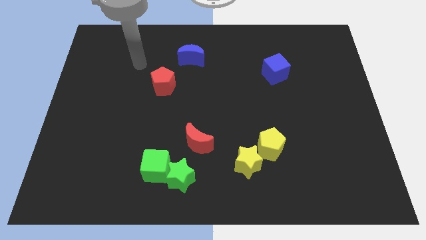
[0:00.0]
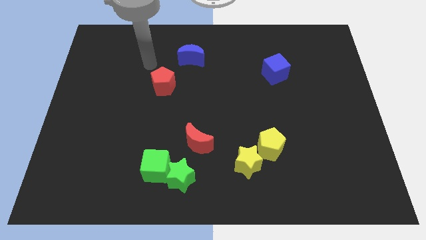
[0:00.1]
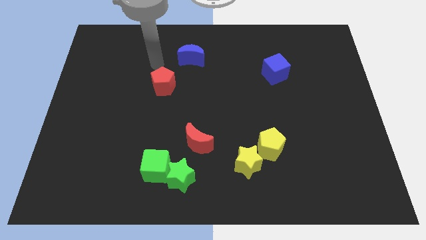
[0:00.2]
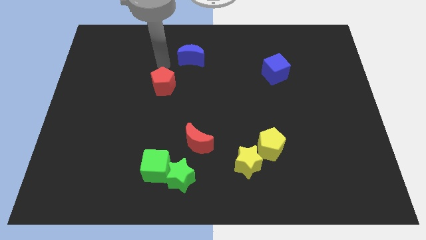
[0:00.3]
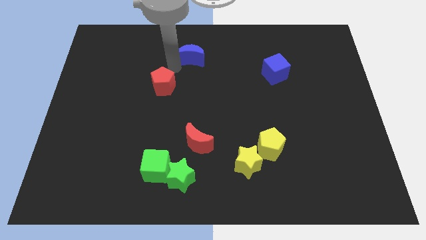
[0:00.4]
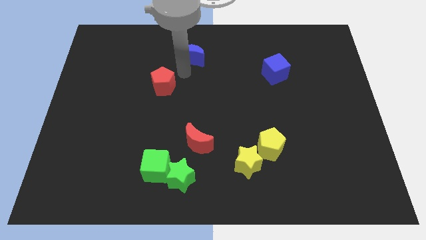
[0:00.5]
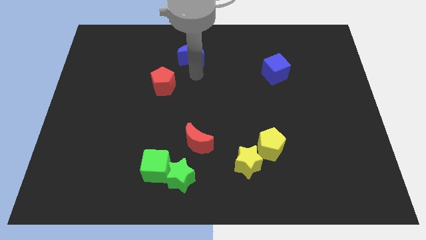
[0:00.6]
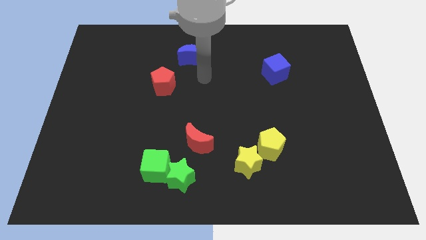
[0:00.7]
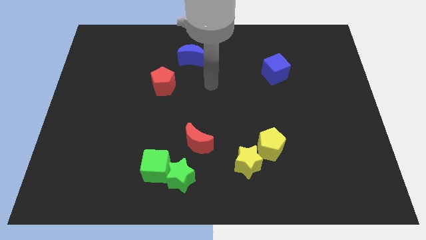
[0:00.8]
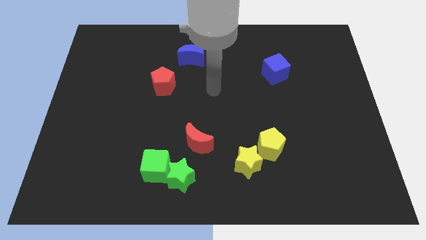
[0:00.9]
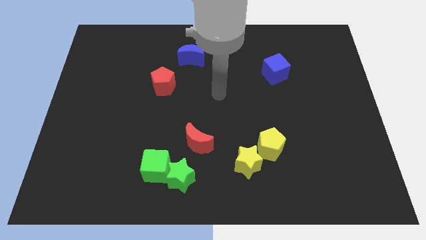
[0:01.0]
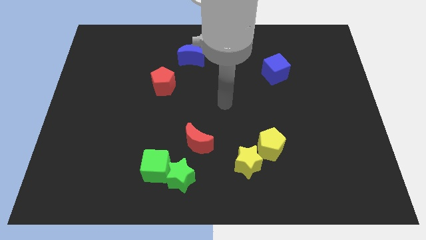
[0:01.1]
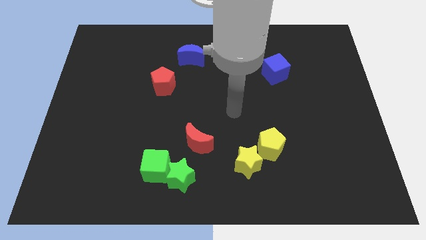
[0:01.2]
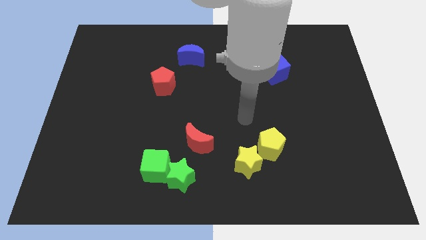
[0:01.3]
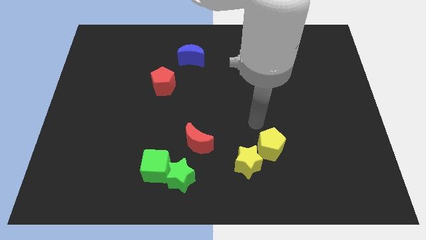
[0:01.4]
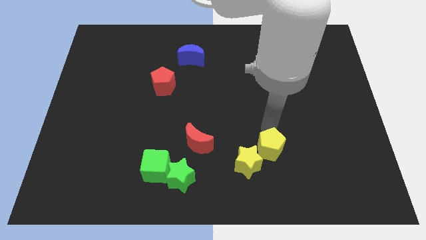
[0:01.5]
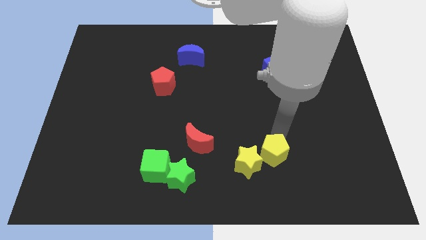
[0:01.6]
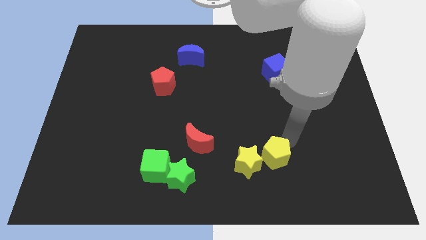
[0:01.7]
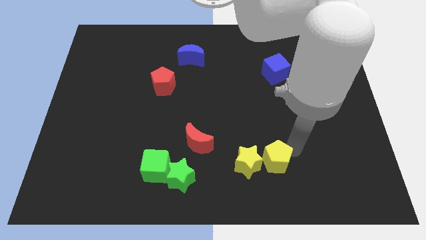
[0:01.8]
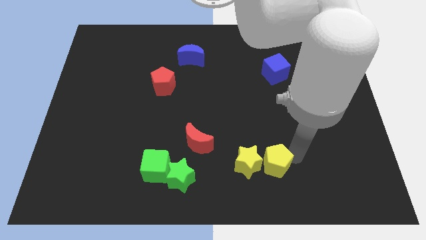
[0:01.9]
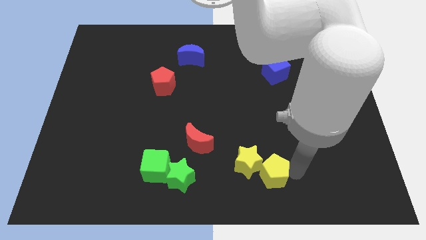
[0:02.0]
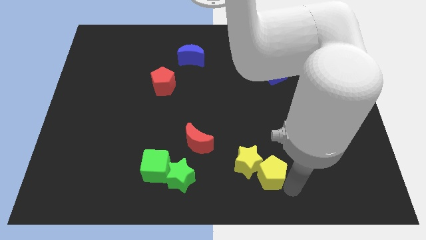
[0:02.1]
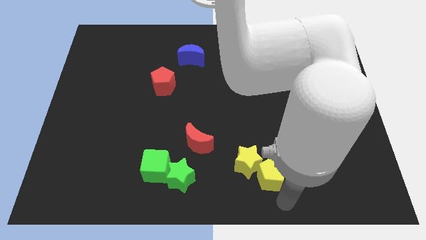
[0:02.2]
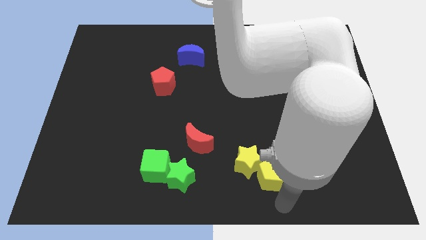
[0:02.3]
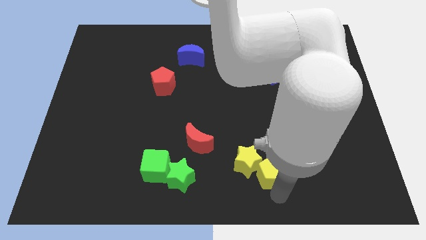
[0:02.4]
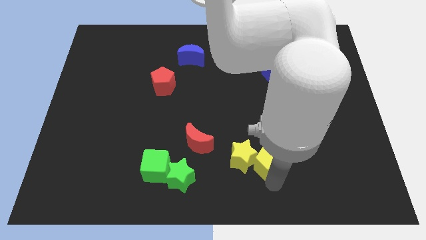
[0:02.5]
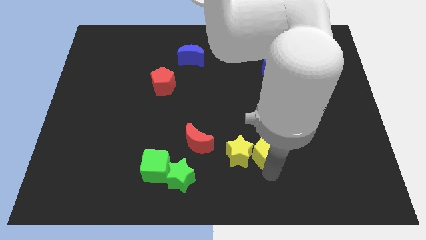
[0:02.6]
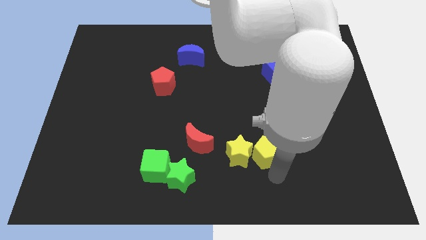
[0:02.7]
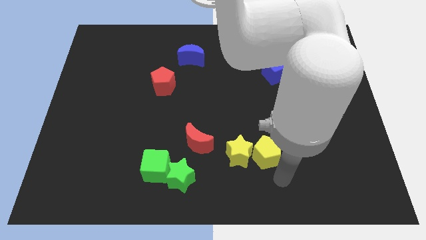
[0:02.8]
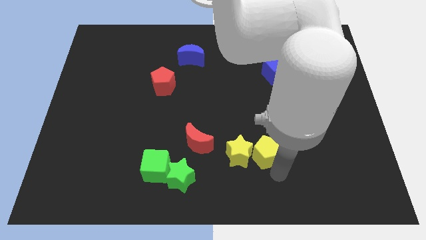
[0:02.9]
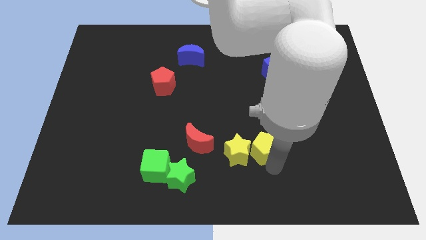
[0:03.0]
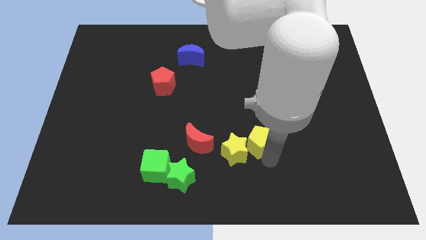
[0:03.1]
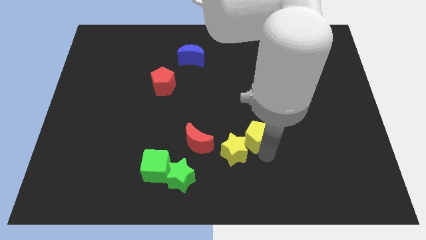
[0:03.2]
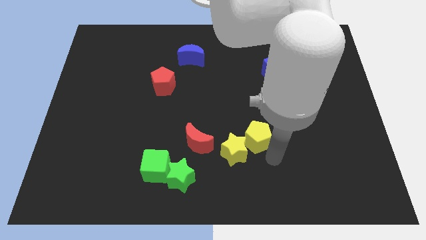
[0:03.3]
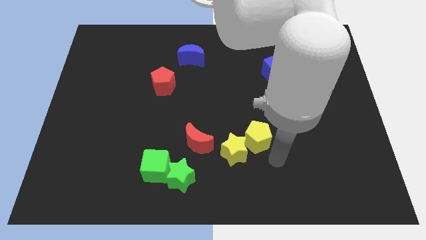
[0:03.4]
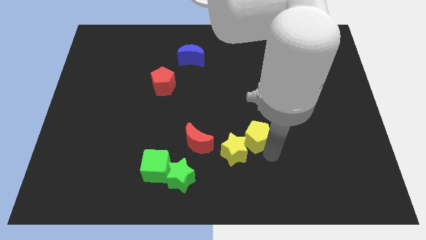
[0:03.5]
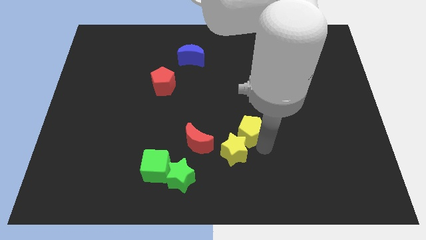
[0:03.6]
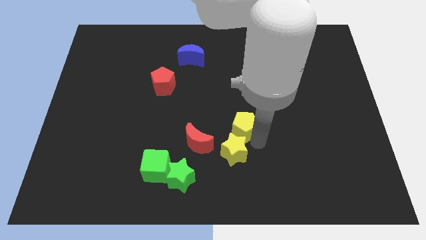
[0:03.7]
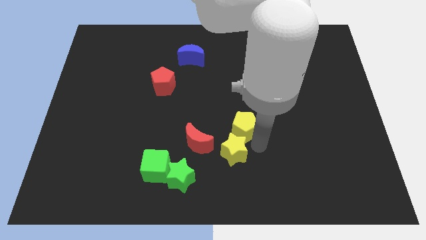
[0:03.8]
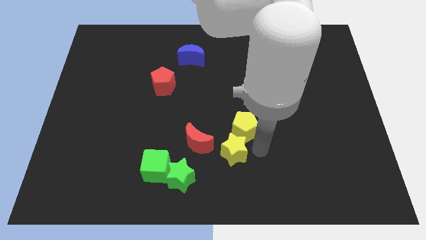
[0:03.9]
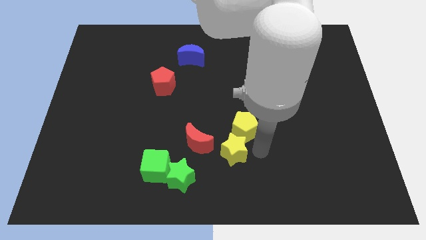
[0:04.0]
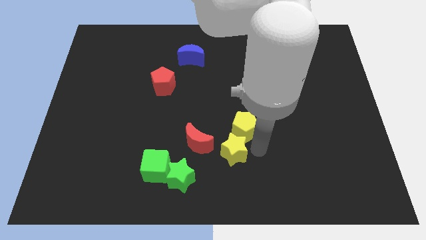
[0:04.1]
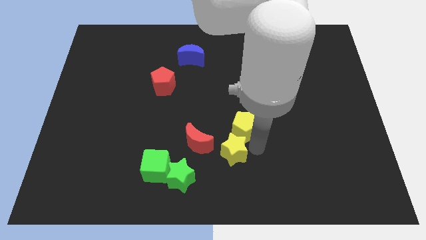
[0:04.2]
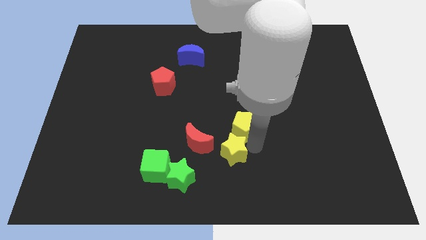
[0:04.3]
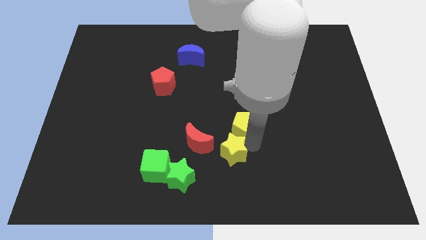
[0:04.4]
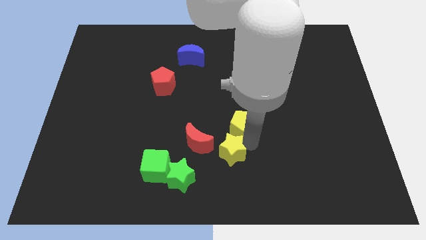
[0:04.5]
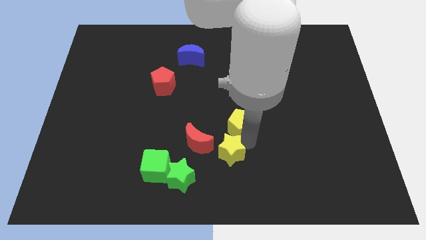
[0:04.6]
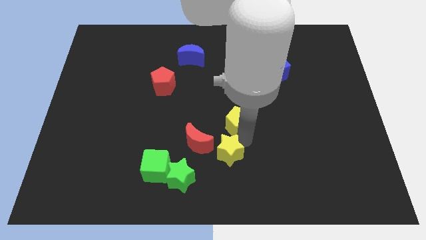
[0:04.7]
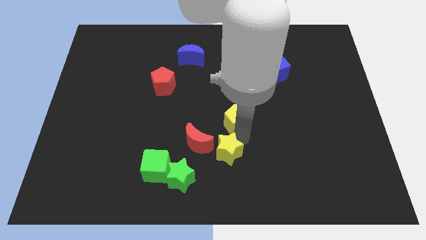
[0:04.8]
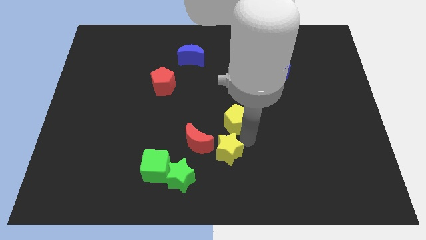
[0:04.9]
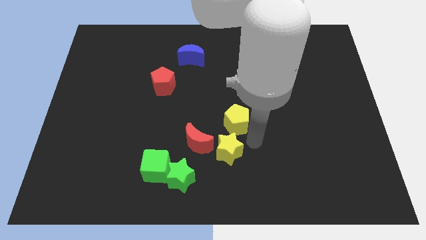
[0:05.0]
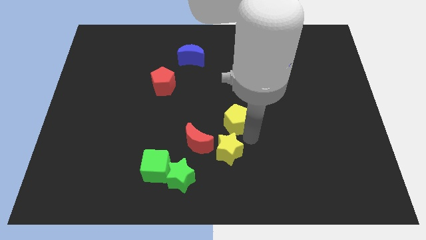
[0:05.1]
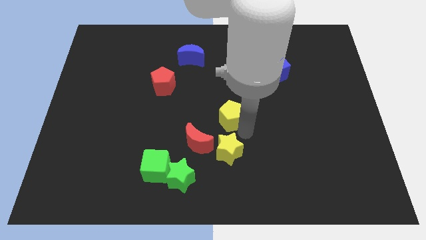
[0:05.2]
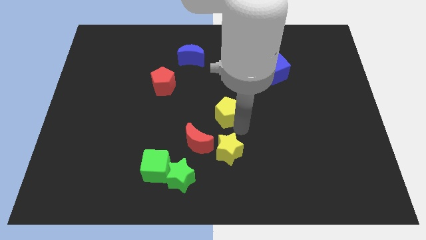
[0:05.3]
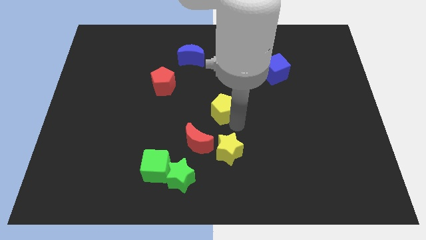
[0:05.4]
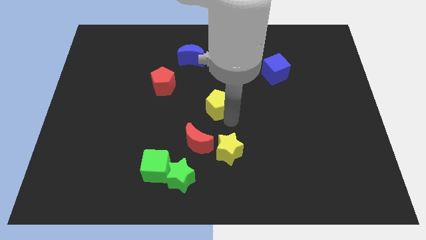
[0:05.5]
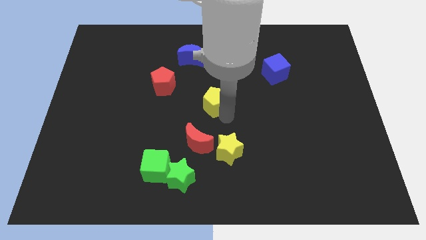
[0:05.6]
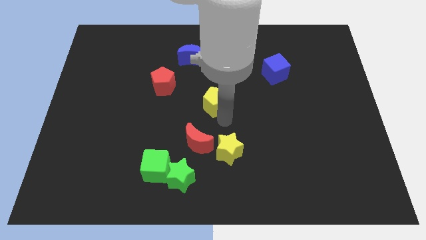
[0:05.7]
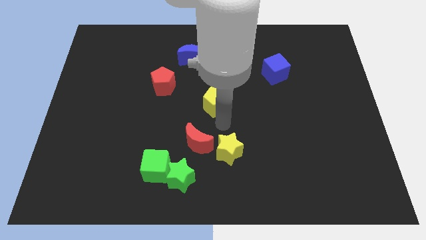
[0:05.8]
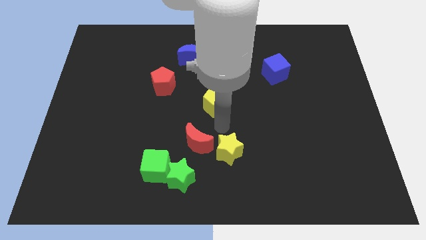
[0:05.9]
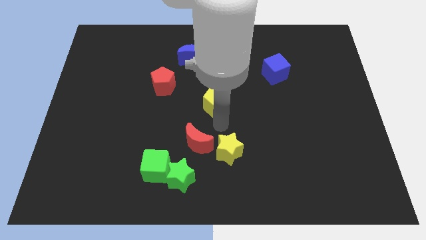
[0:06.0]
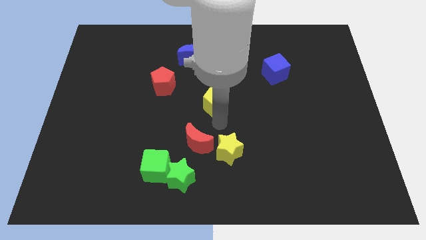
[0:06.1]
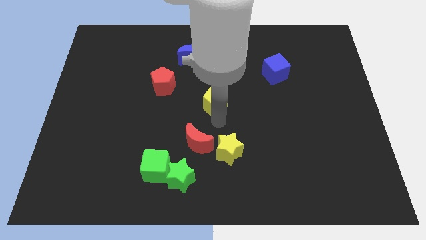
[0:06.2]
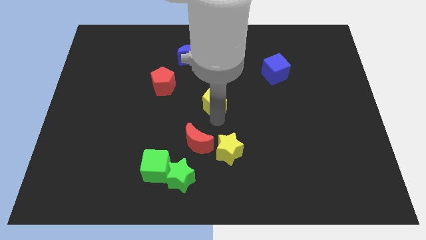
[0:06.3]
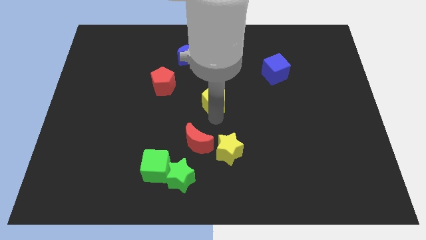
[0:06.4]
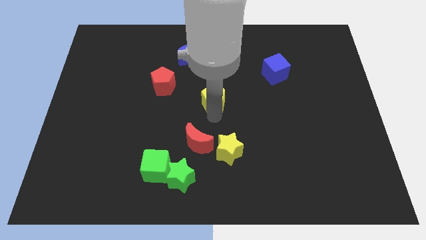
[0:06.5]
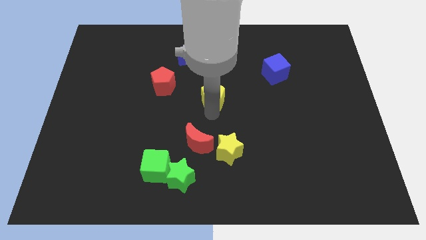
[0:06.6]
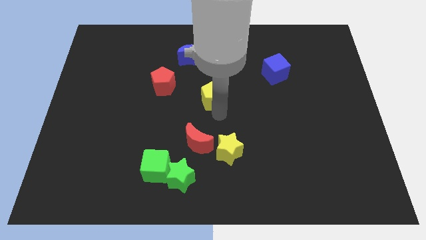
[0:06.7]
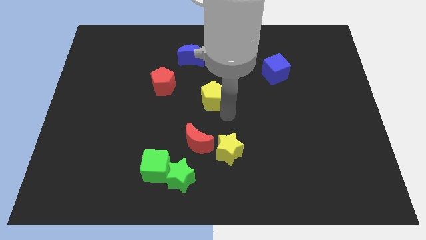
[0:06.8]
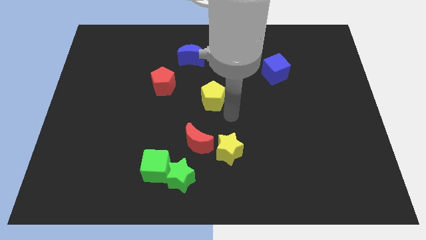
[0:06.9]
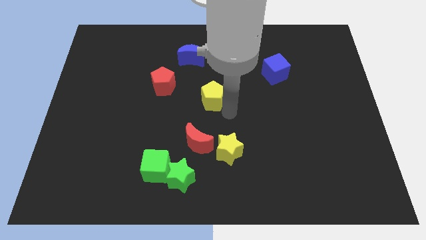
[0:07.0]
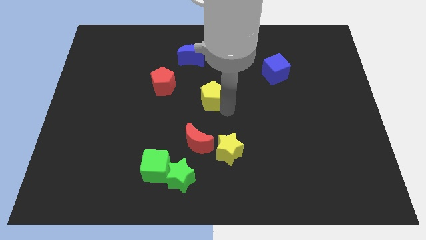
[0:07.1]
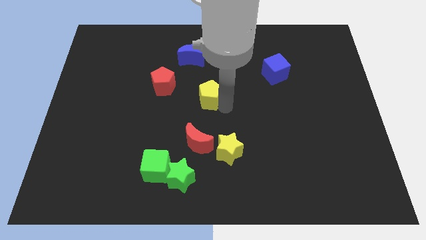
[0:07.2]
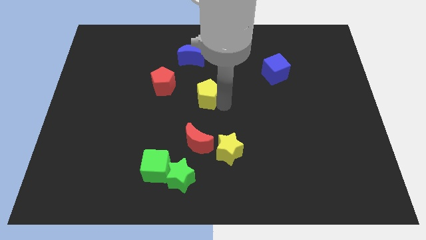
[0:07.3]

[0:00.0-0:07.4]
slide the yellow pentagon up and to the left diagonally

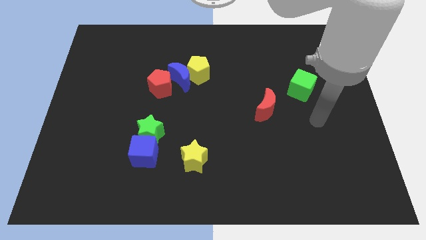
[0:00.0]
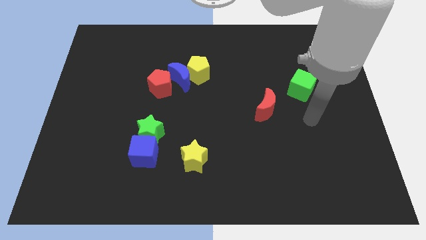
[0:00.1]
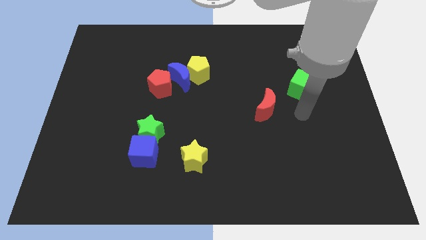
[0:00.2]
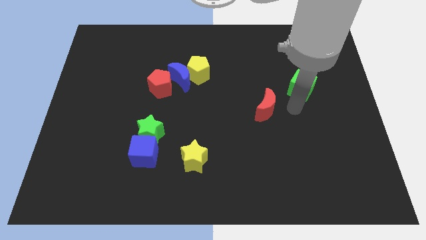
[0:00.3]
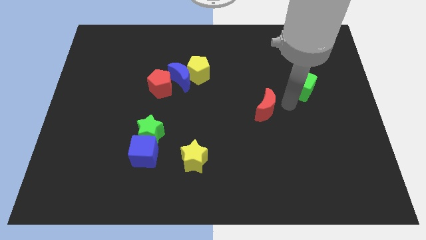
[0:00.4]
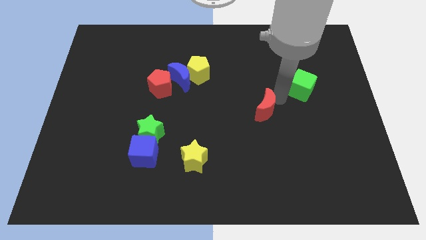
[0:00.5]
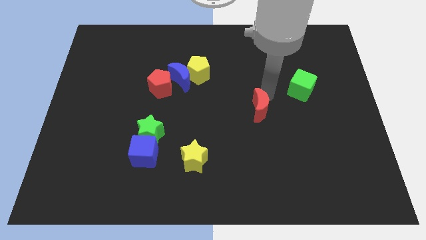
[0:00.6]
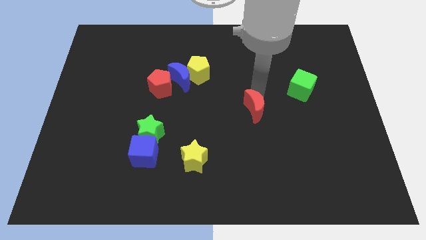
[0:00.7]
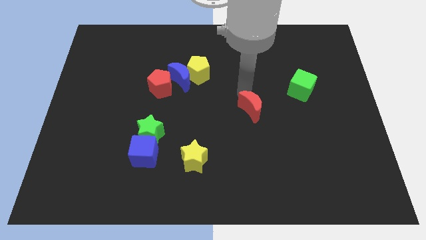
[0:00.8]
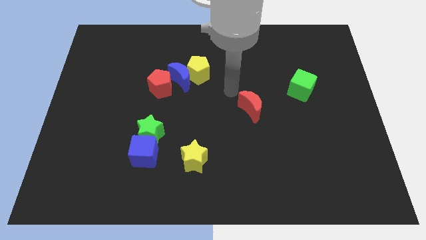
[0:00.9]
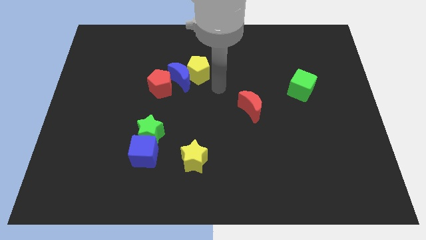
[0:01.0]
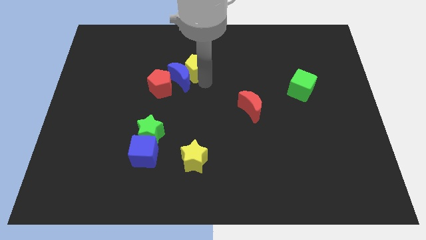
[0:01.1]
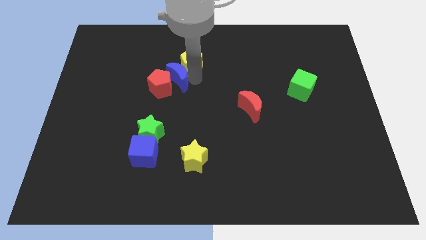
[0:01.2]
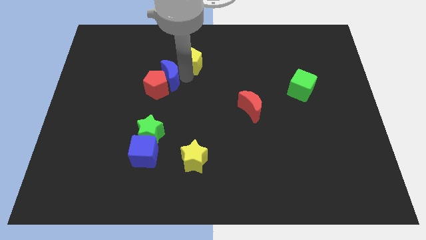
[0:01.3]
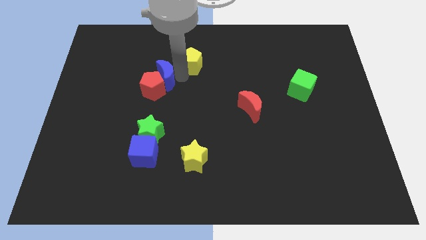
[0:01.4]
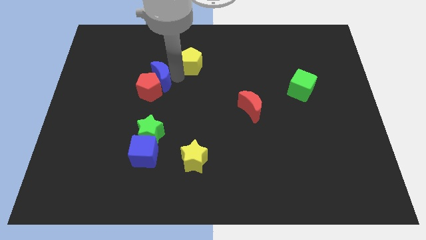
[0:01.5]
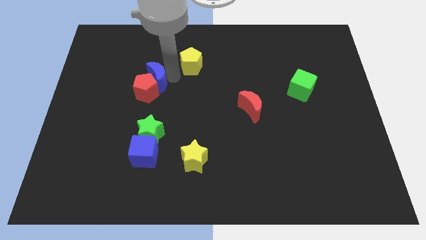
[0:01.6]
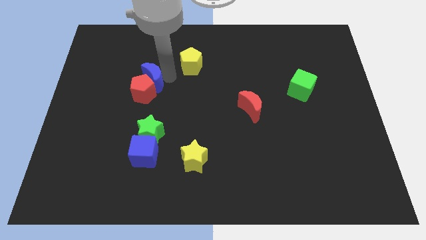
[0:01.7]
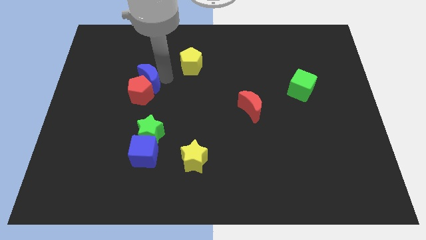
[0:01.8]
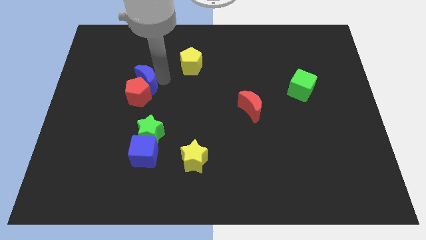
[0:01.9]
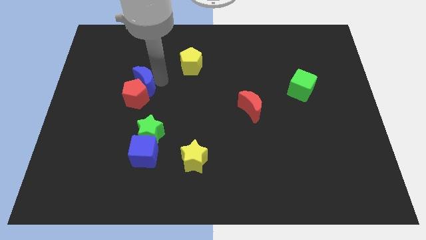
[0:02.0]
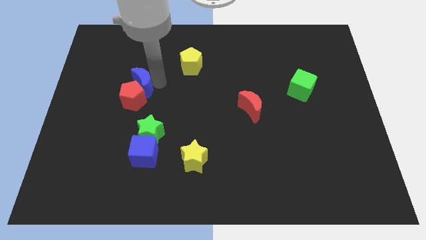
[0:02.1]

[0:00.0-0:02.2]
slide the red pentagon downwards and to the left somewhat
